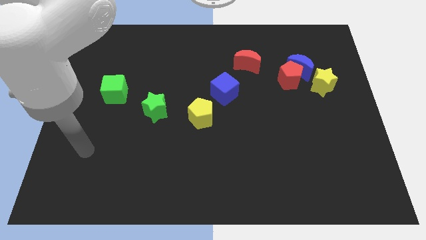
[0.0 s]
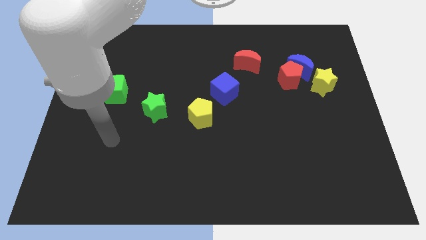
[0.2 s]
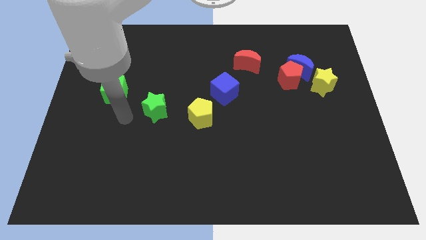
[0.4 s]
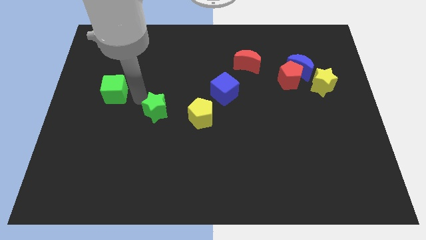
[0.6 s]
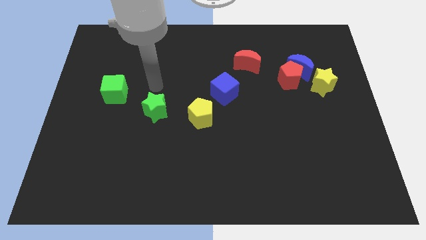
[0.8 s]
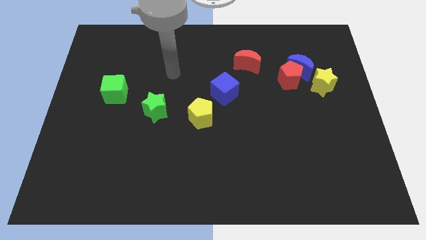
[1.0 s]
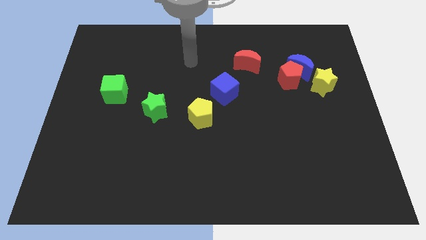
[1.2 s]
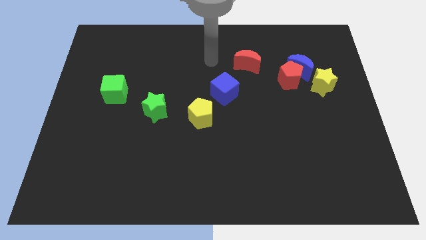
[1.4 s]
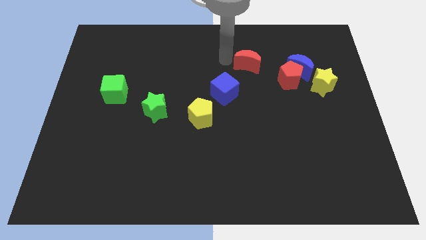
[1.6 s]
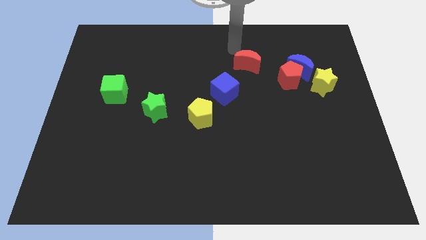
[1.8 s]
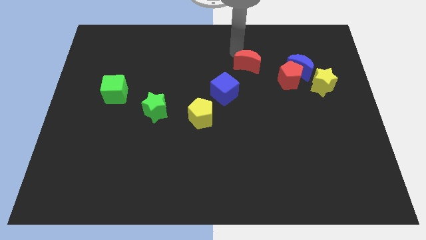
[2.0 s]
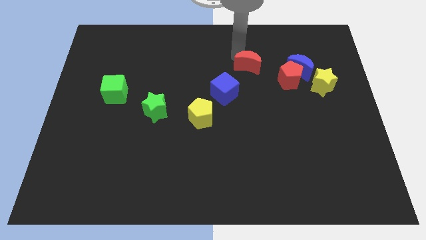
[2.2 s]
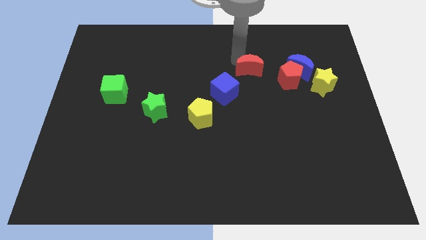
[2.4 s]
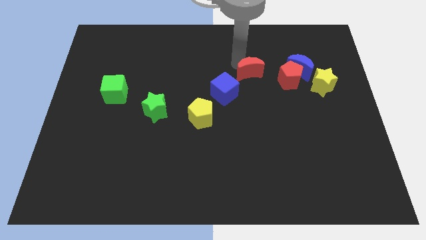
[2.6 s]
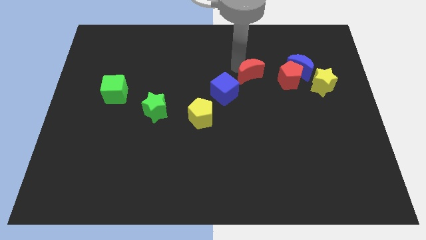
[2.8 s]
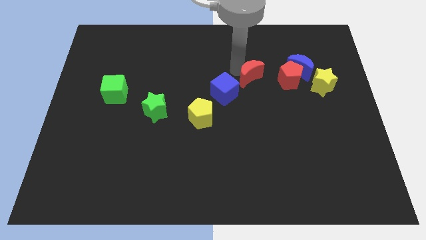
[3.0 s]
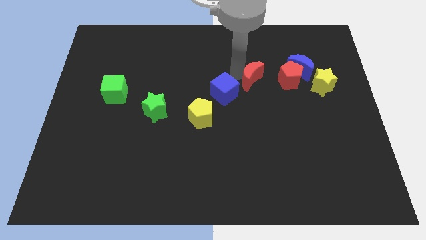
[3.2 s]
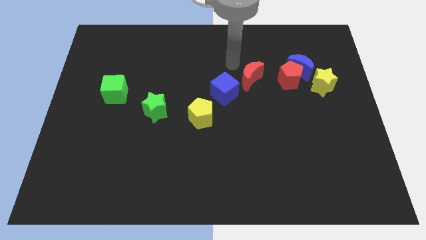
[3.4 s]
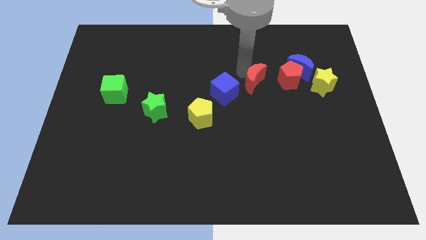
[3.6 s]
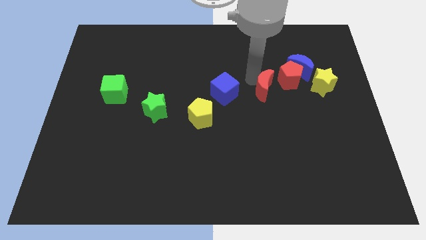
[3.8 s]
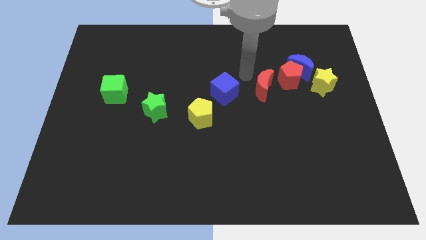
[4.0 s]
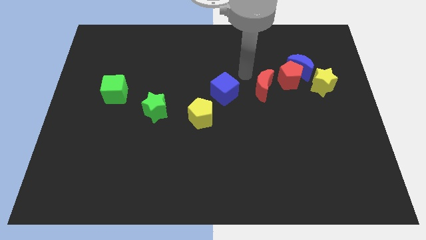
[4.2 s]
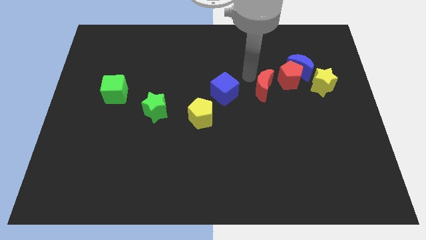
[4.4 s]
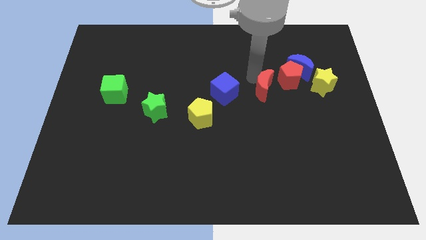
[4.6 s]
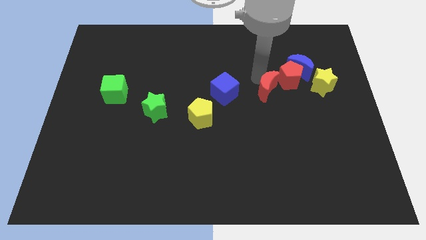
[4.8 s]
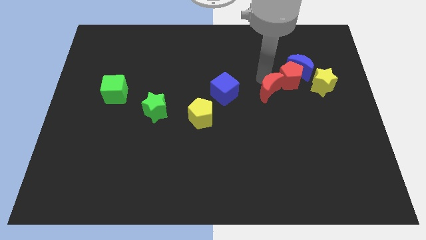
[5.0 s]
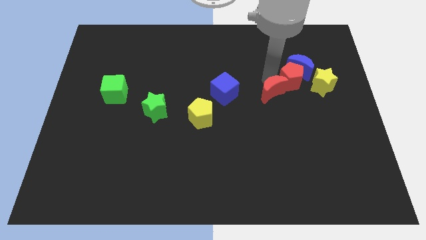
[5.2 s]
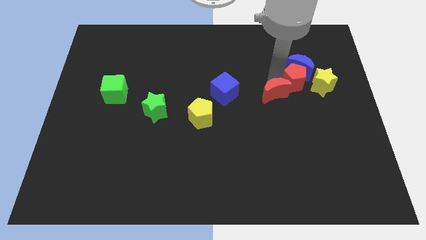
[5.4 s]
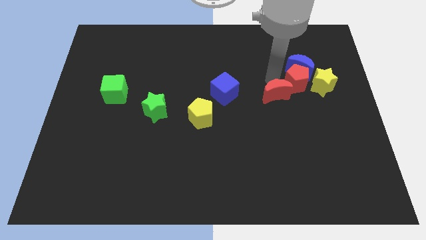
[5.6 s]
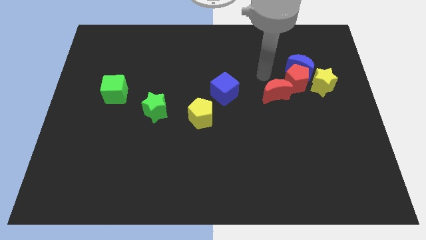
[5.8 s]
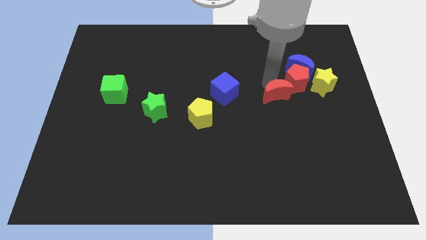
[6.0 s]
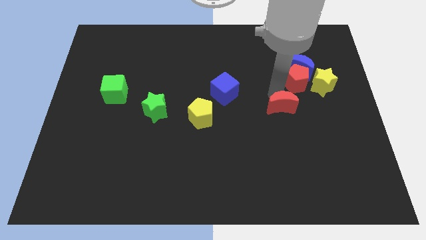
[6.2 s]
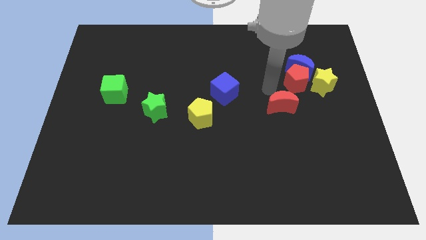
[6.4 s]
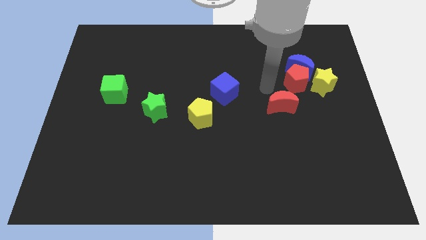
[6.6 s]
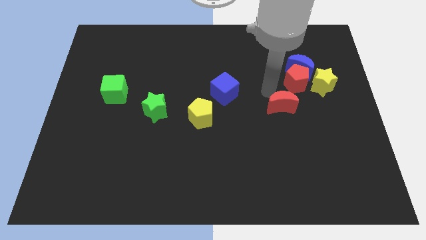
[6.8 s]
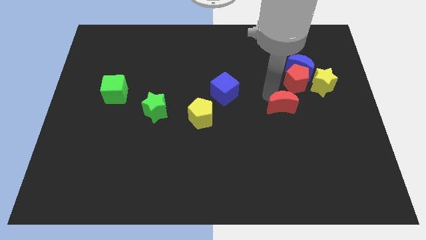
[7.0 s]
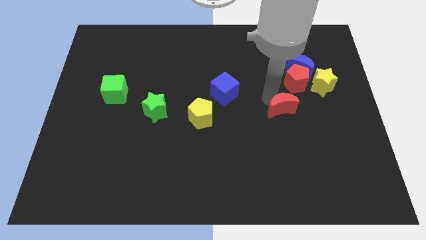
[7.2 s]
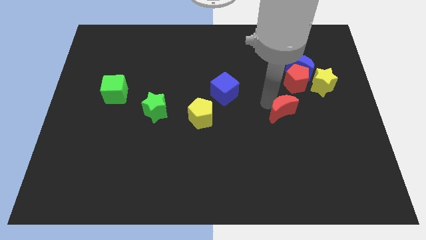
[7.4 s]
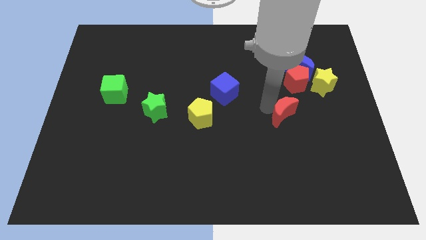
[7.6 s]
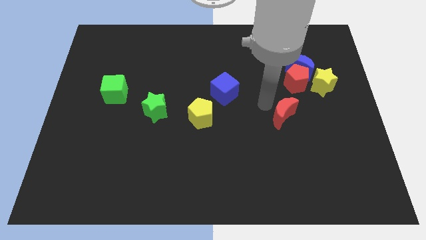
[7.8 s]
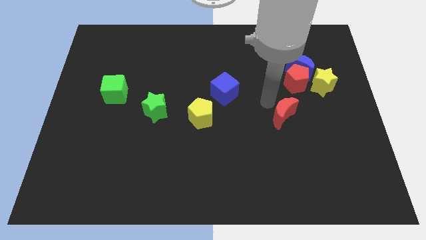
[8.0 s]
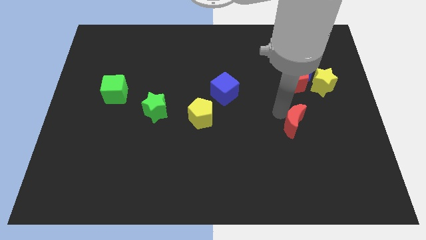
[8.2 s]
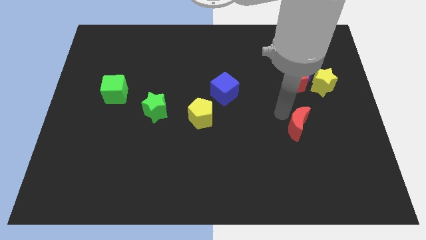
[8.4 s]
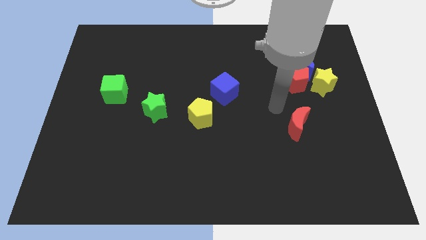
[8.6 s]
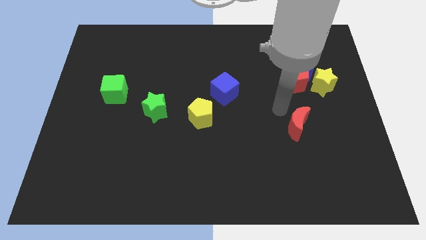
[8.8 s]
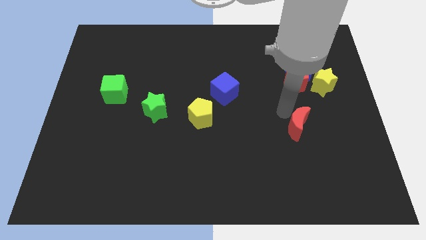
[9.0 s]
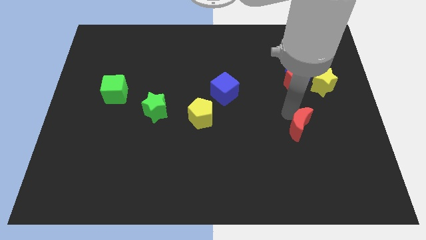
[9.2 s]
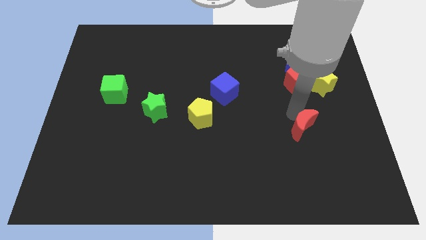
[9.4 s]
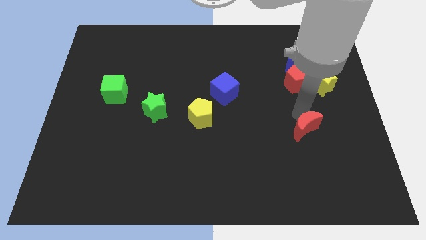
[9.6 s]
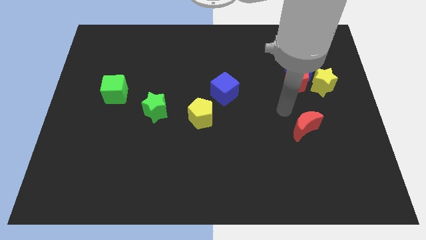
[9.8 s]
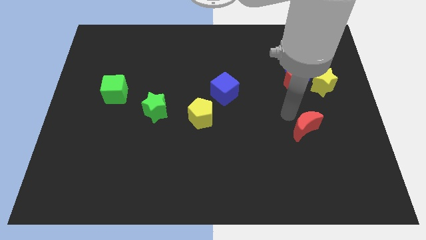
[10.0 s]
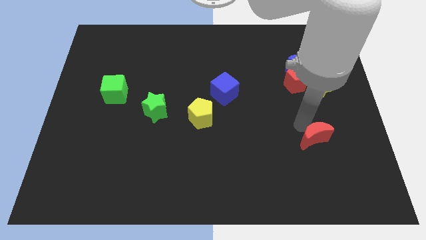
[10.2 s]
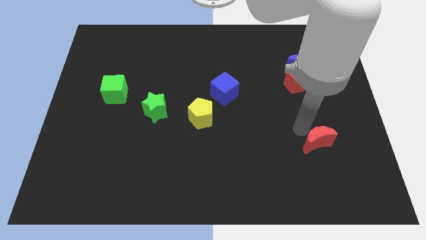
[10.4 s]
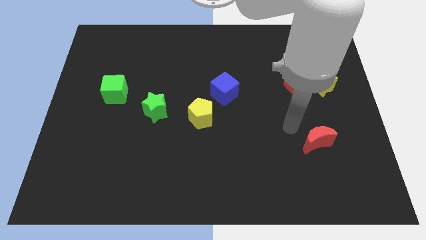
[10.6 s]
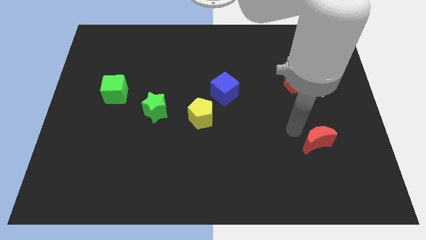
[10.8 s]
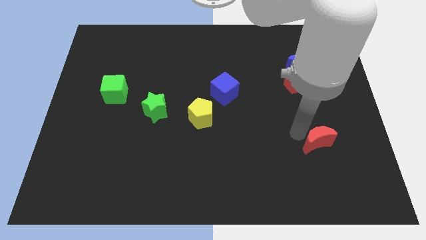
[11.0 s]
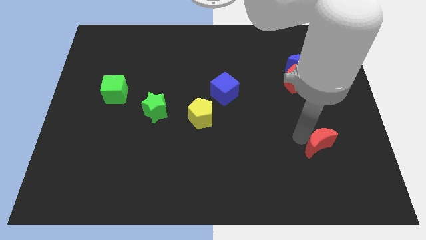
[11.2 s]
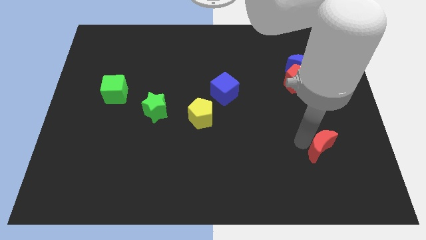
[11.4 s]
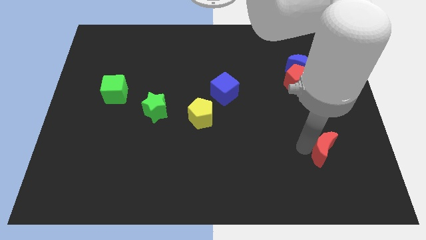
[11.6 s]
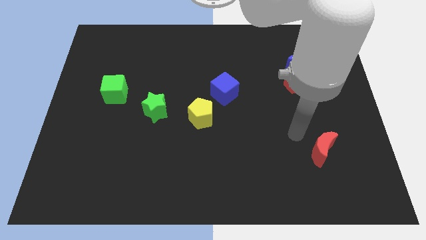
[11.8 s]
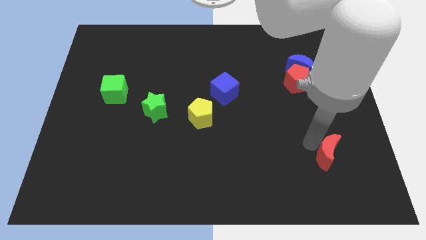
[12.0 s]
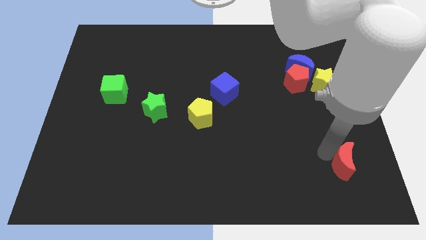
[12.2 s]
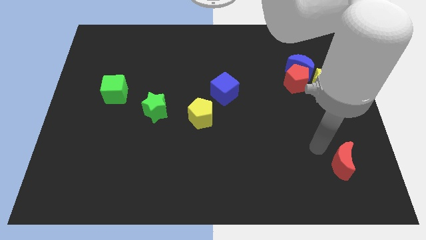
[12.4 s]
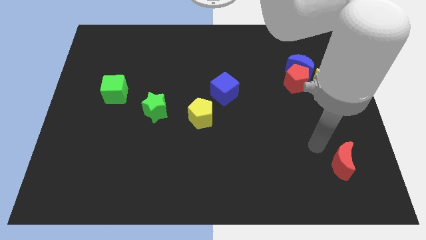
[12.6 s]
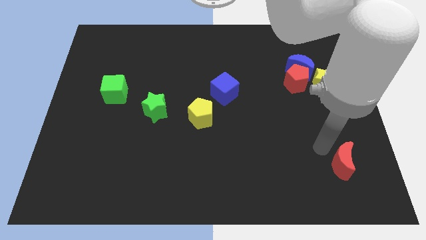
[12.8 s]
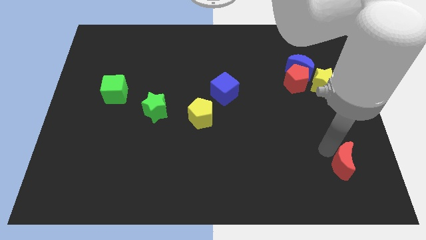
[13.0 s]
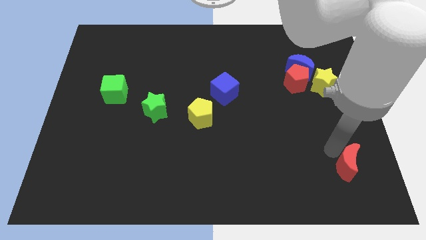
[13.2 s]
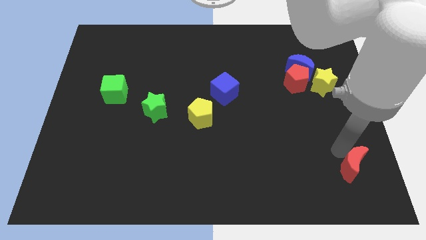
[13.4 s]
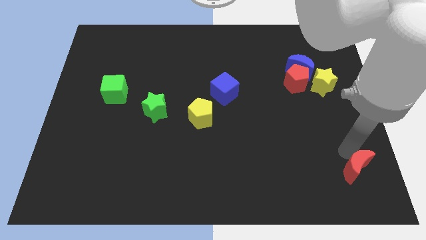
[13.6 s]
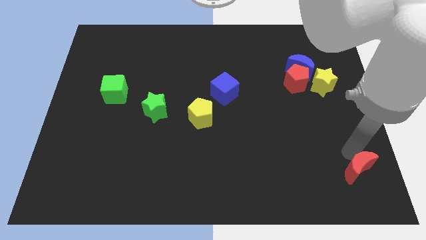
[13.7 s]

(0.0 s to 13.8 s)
slide the red moon to the lower right corner

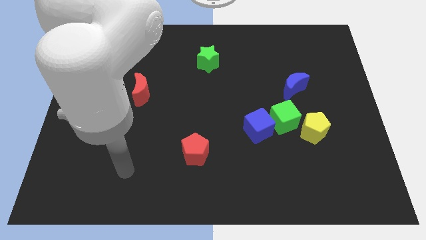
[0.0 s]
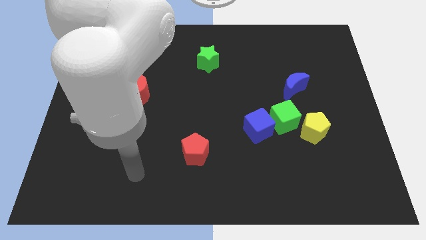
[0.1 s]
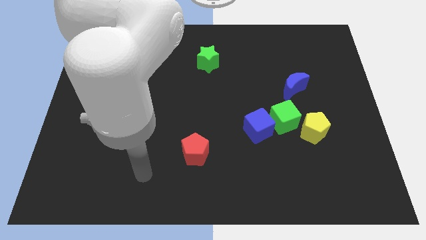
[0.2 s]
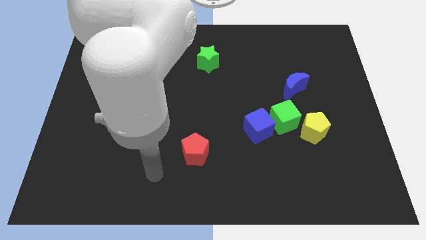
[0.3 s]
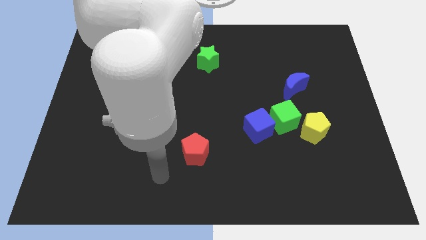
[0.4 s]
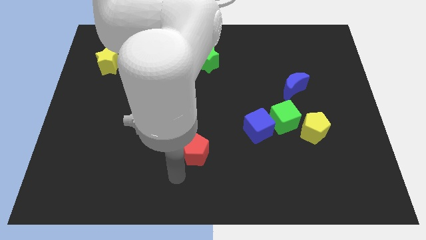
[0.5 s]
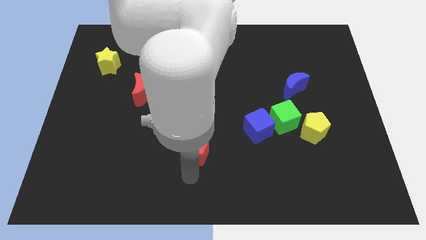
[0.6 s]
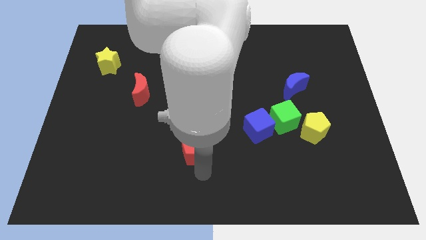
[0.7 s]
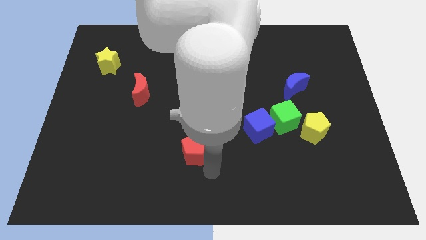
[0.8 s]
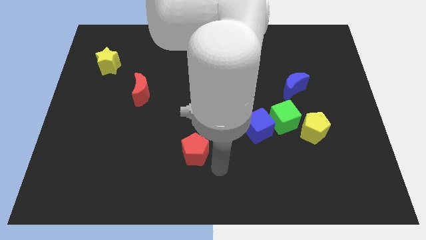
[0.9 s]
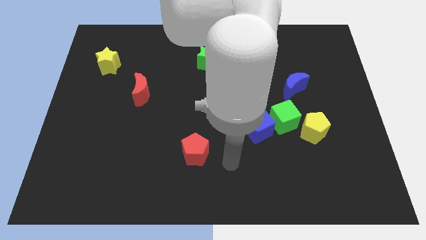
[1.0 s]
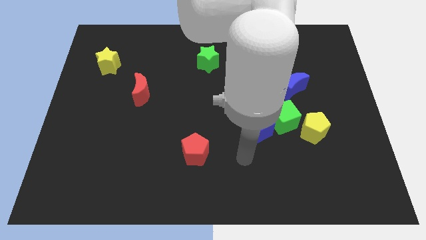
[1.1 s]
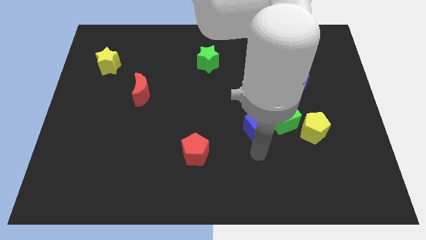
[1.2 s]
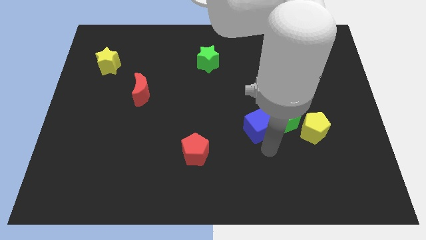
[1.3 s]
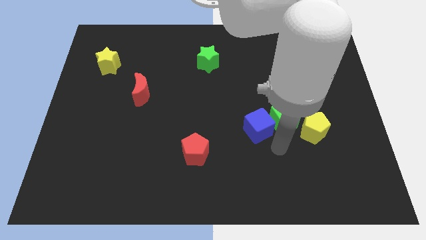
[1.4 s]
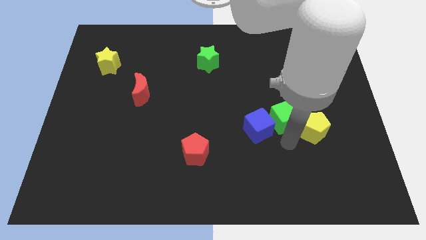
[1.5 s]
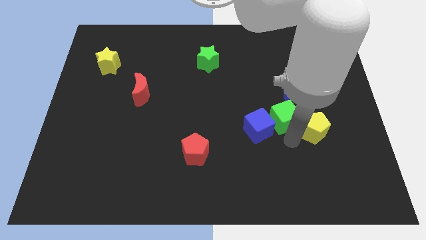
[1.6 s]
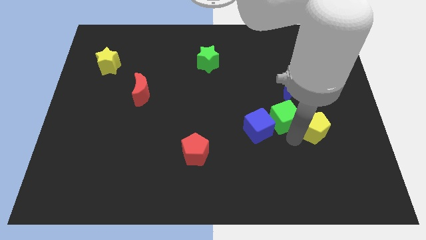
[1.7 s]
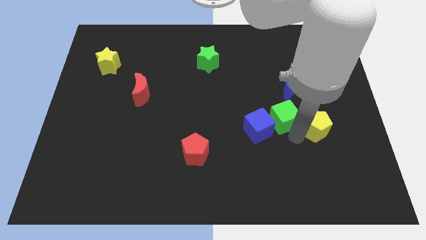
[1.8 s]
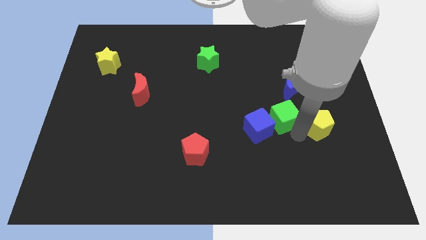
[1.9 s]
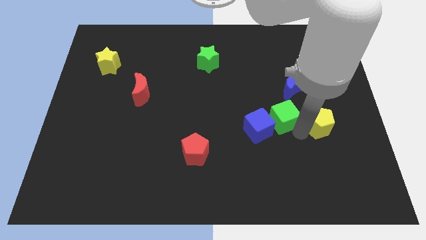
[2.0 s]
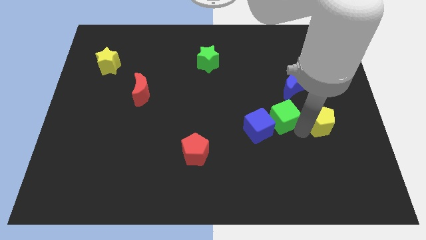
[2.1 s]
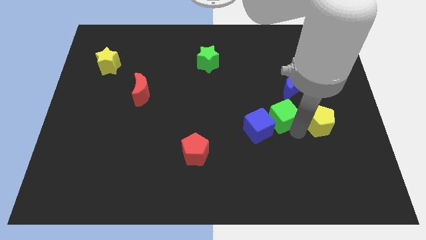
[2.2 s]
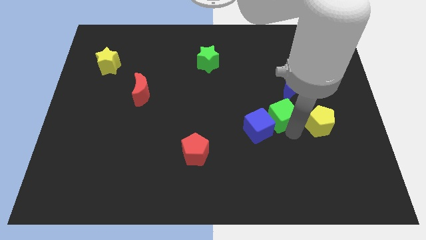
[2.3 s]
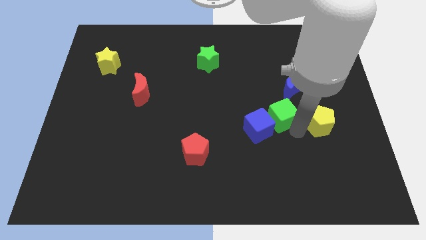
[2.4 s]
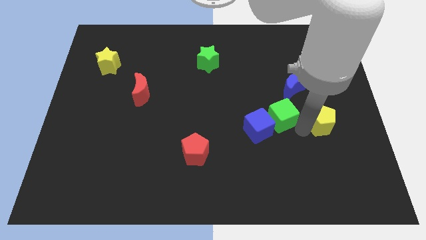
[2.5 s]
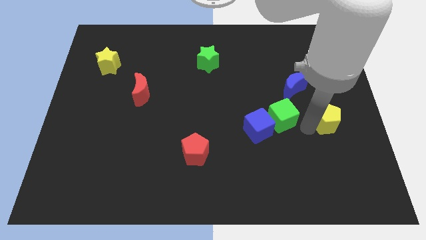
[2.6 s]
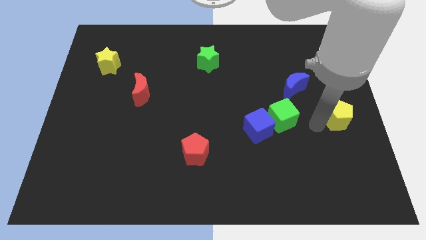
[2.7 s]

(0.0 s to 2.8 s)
move the yellow pentagon to the right side
